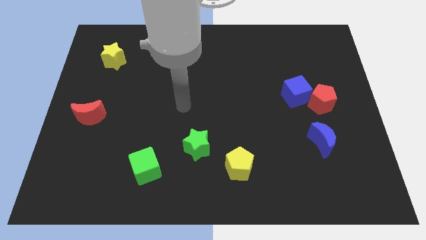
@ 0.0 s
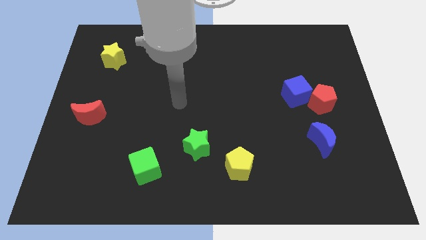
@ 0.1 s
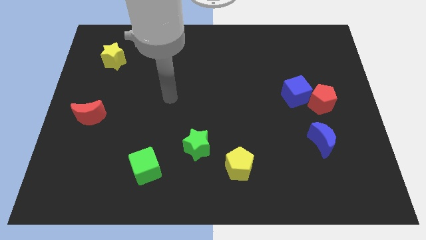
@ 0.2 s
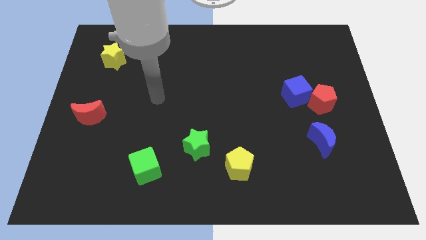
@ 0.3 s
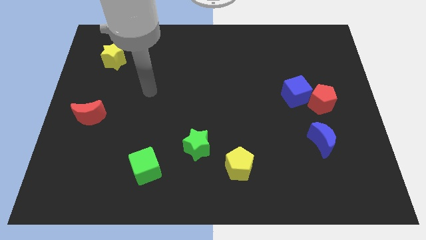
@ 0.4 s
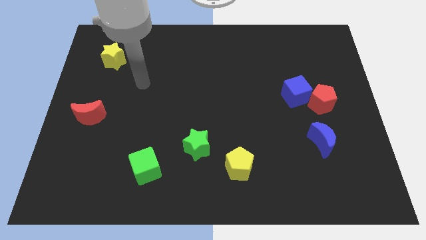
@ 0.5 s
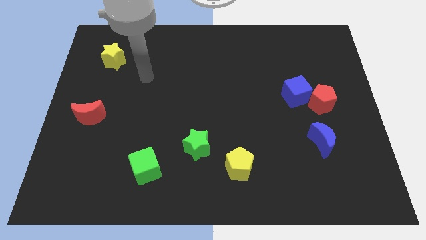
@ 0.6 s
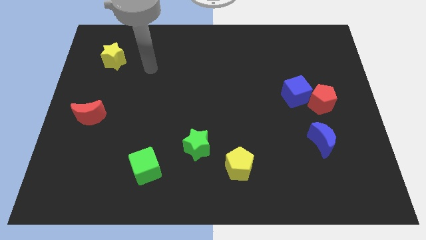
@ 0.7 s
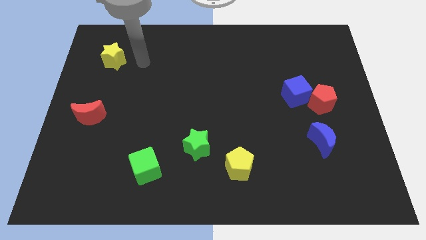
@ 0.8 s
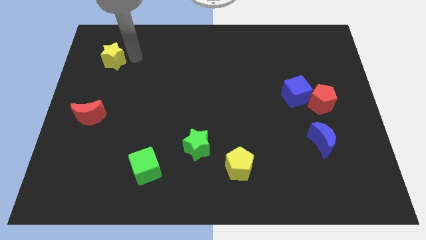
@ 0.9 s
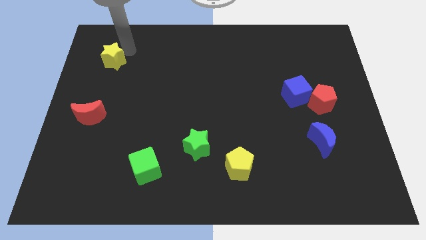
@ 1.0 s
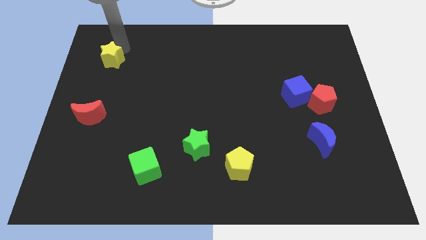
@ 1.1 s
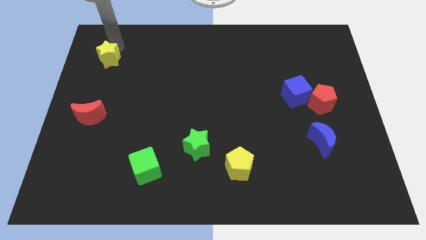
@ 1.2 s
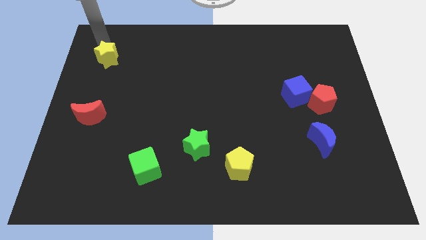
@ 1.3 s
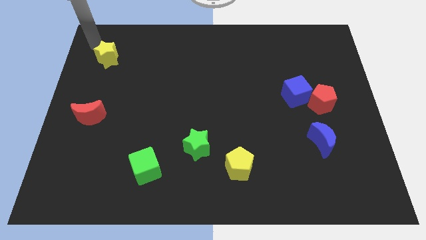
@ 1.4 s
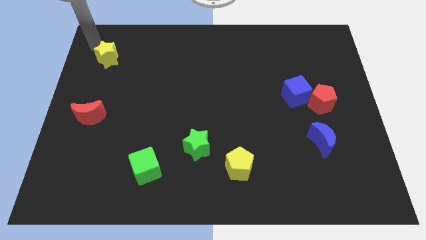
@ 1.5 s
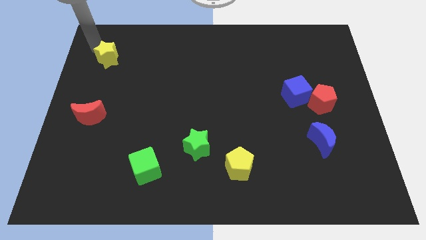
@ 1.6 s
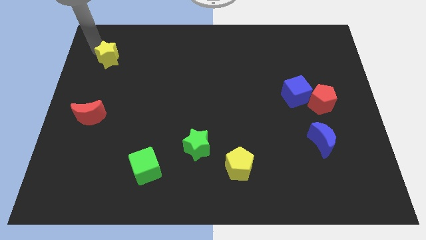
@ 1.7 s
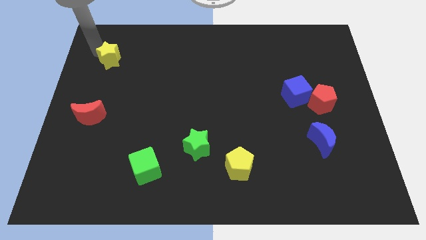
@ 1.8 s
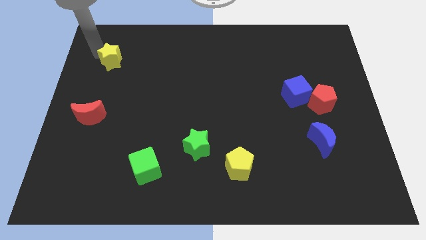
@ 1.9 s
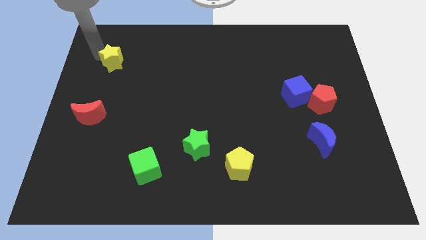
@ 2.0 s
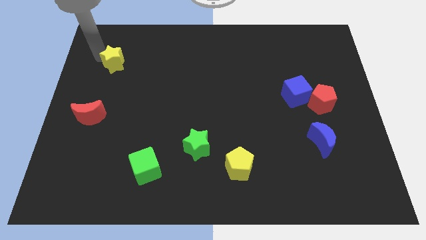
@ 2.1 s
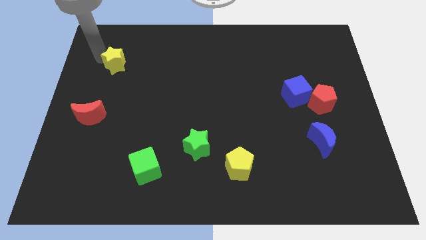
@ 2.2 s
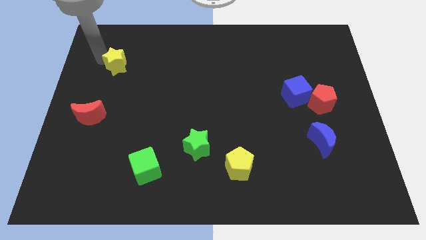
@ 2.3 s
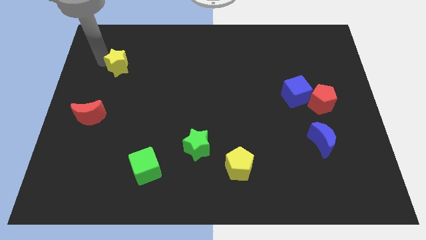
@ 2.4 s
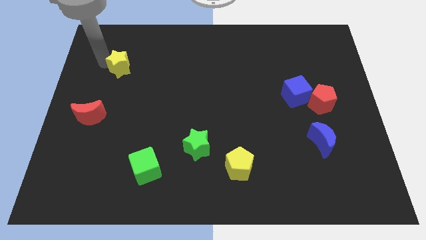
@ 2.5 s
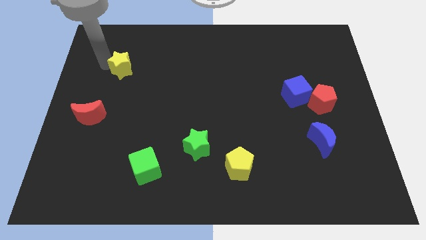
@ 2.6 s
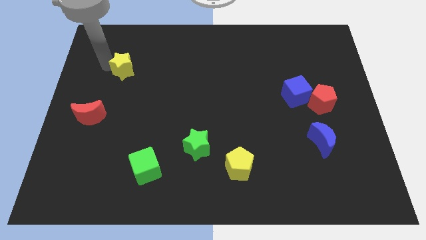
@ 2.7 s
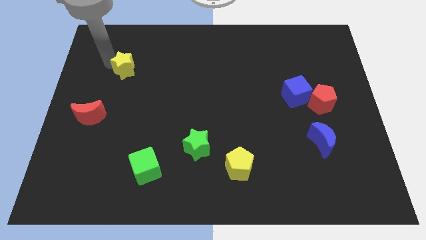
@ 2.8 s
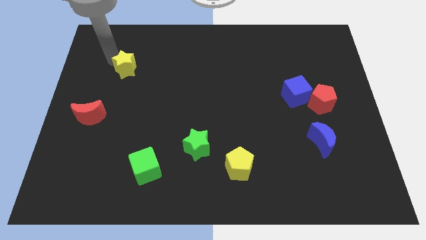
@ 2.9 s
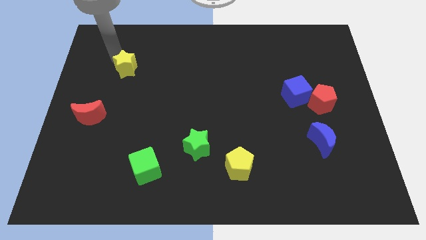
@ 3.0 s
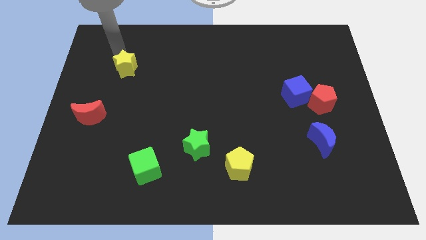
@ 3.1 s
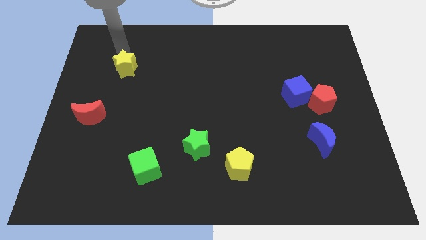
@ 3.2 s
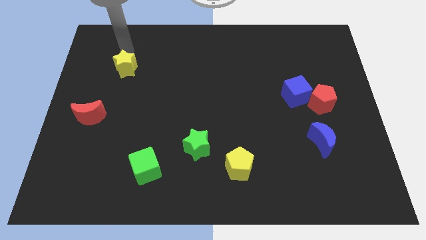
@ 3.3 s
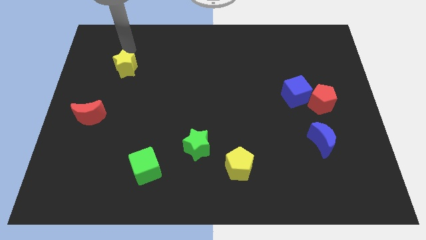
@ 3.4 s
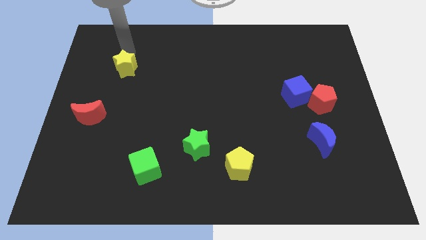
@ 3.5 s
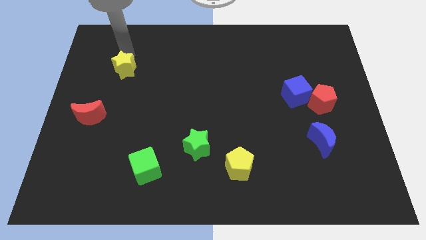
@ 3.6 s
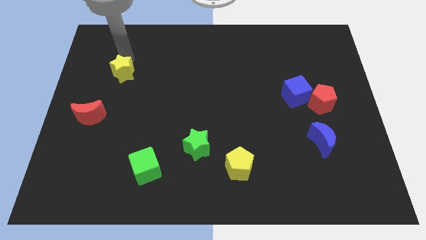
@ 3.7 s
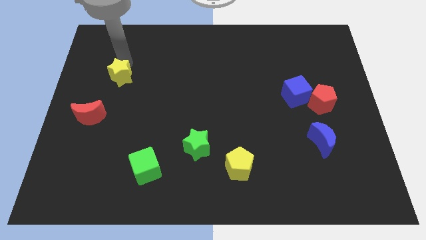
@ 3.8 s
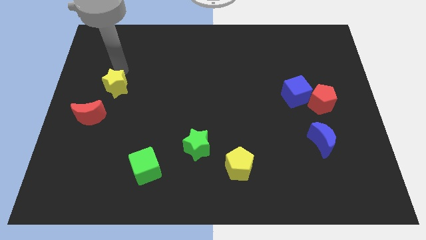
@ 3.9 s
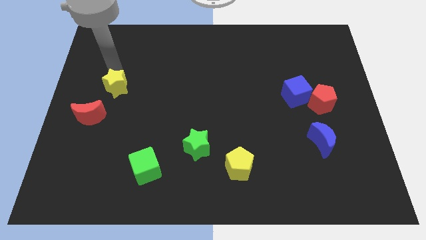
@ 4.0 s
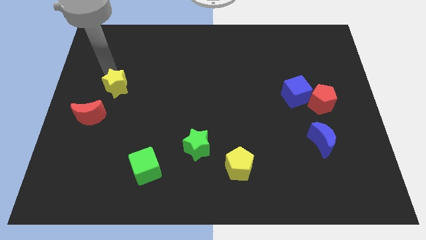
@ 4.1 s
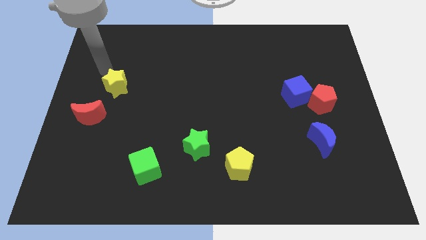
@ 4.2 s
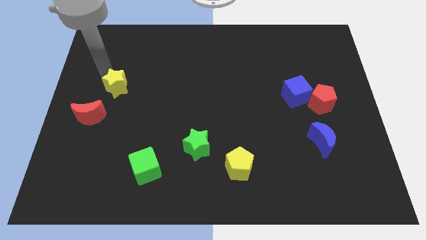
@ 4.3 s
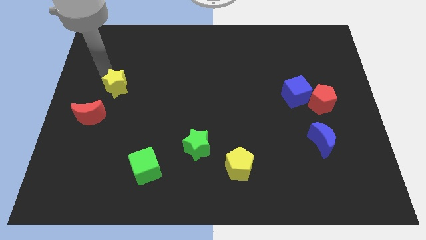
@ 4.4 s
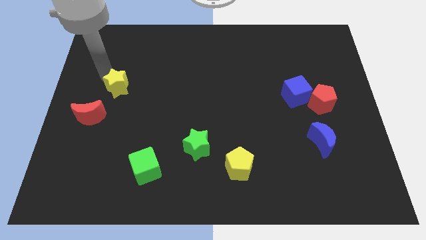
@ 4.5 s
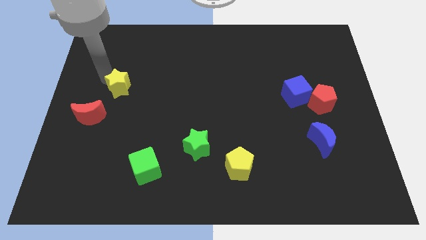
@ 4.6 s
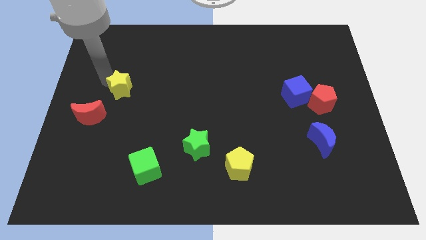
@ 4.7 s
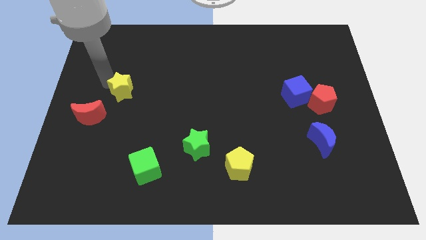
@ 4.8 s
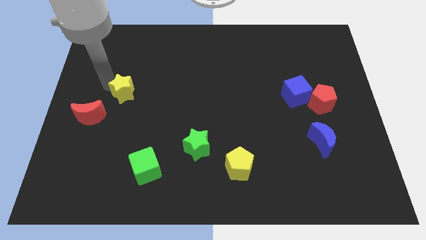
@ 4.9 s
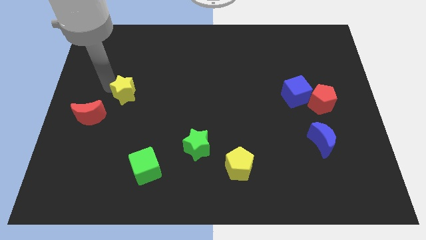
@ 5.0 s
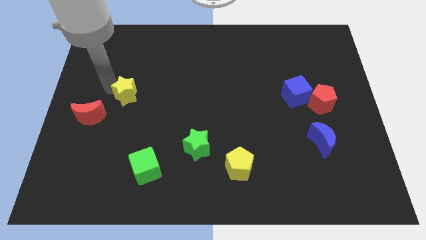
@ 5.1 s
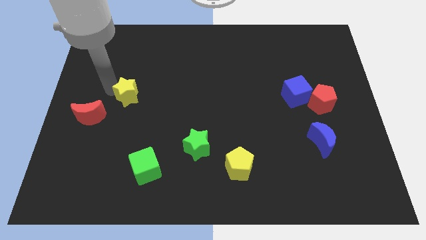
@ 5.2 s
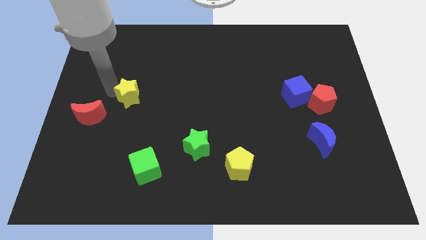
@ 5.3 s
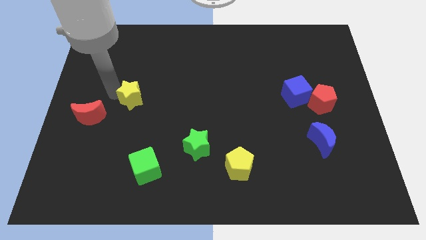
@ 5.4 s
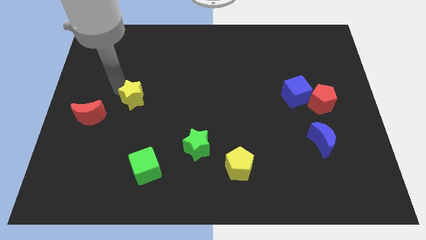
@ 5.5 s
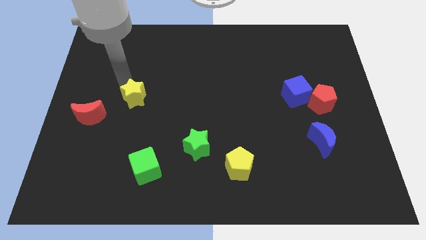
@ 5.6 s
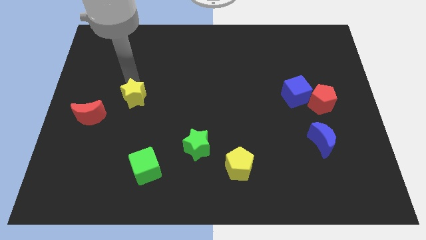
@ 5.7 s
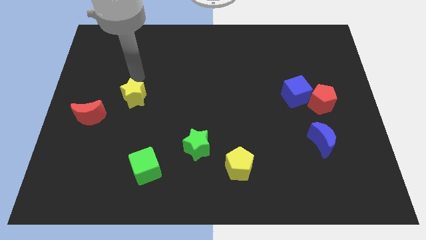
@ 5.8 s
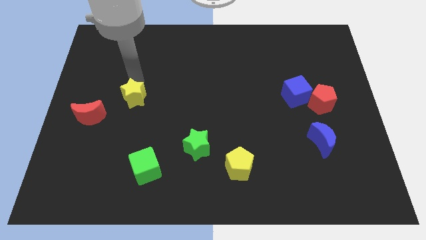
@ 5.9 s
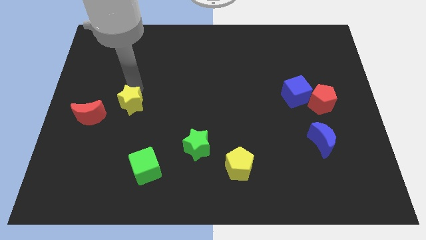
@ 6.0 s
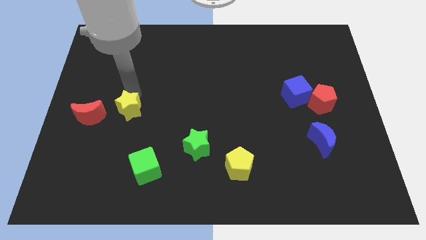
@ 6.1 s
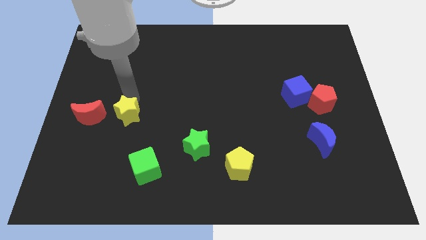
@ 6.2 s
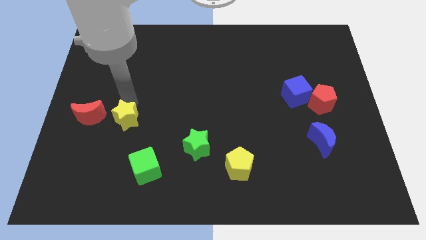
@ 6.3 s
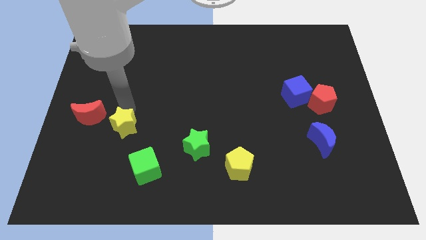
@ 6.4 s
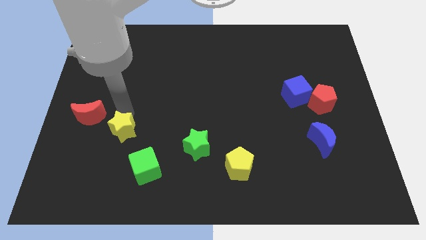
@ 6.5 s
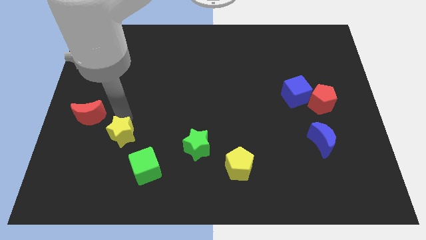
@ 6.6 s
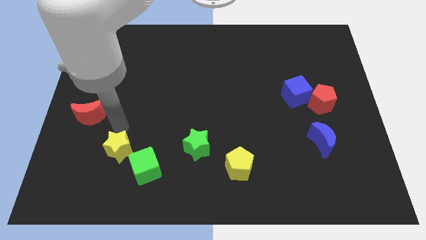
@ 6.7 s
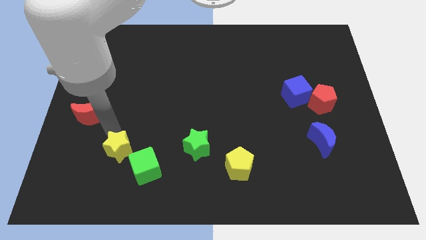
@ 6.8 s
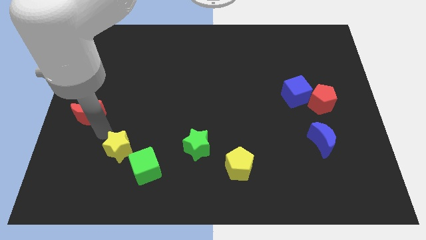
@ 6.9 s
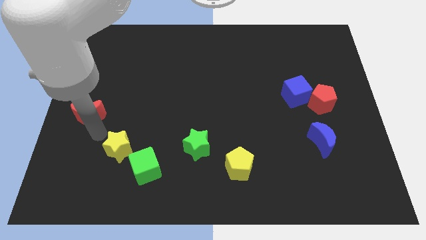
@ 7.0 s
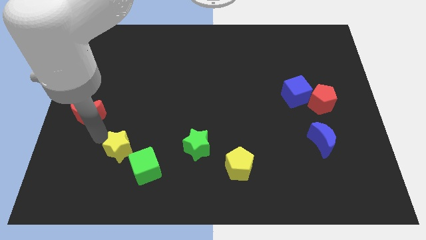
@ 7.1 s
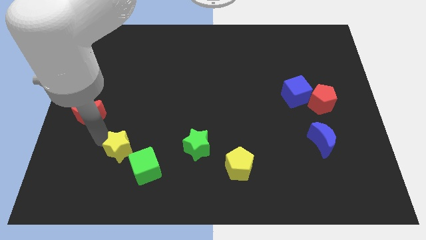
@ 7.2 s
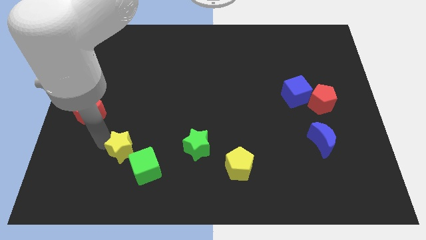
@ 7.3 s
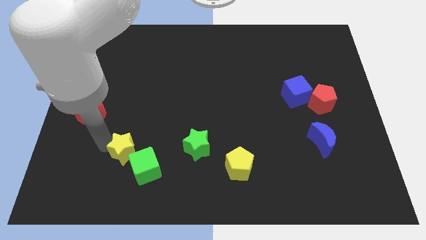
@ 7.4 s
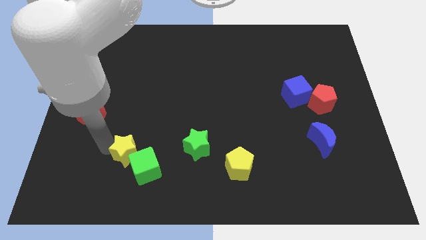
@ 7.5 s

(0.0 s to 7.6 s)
slide the yellow star towards the green cube
